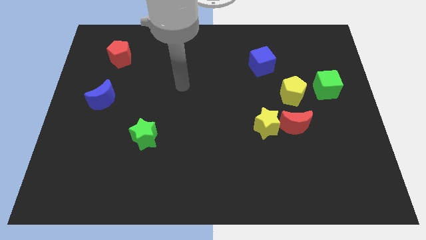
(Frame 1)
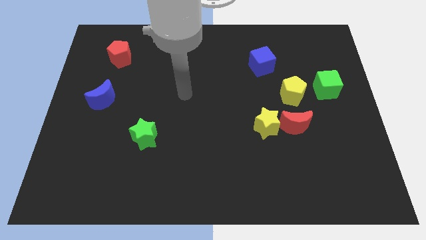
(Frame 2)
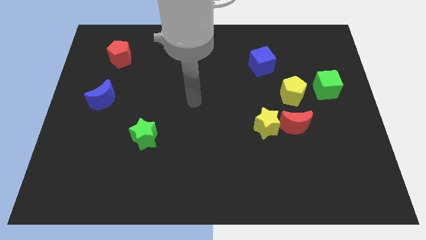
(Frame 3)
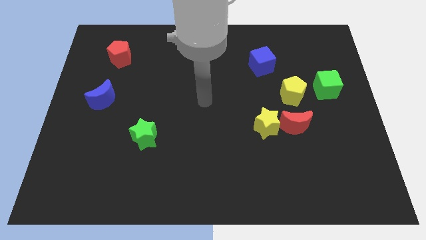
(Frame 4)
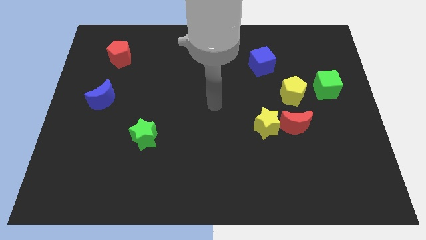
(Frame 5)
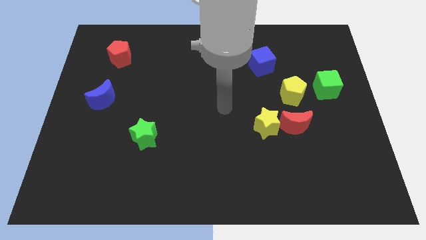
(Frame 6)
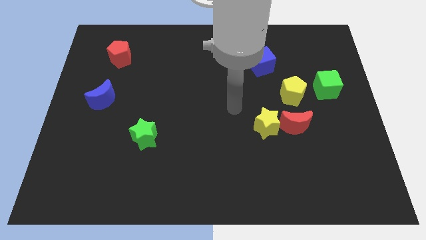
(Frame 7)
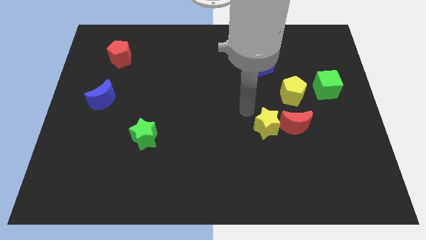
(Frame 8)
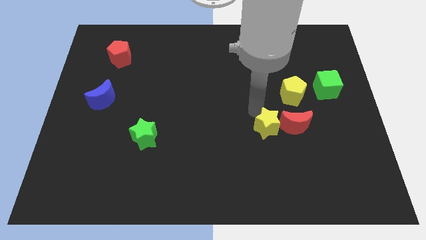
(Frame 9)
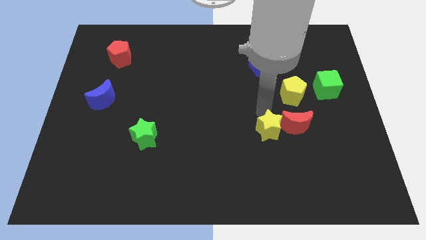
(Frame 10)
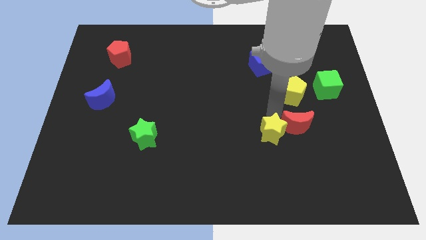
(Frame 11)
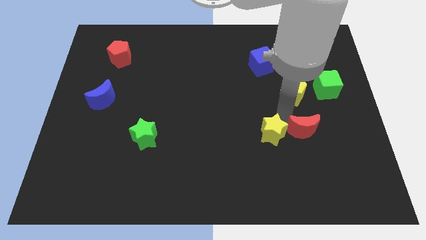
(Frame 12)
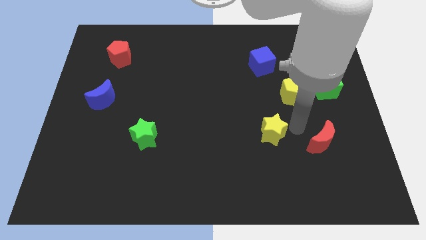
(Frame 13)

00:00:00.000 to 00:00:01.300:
move the yellow star away from the red moon

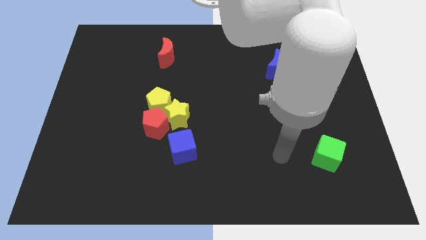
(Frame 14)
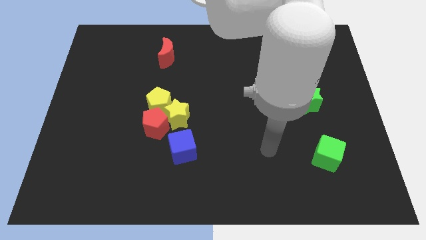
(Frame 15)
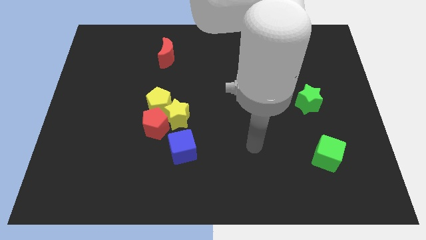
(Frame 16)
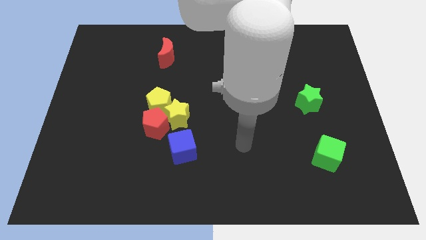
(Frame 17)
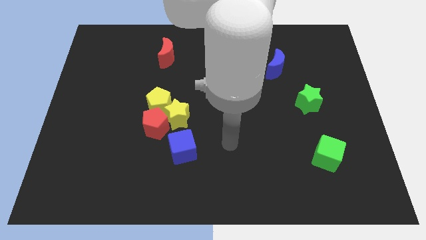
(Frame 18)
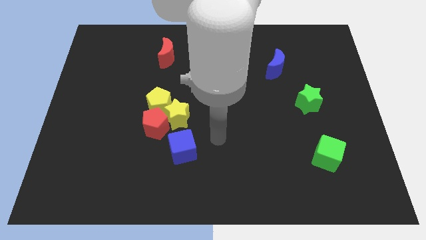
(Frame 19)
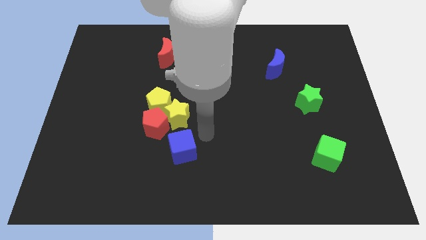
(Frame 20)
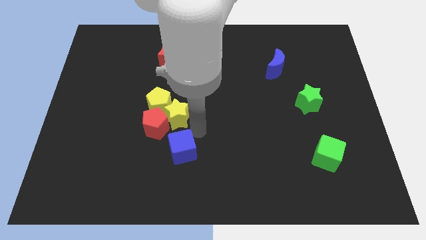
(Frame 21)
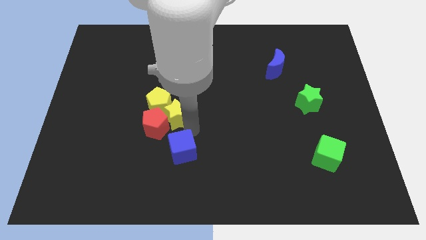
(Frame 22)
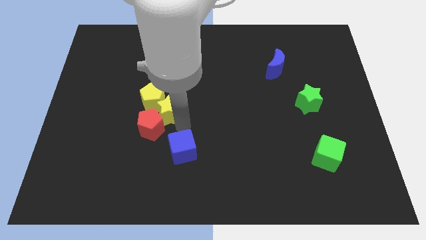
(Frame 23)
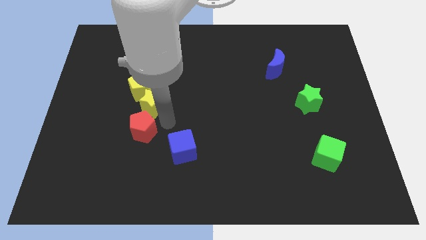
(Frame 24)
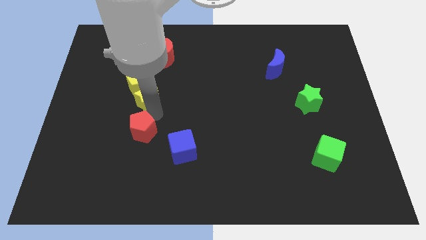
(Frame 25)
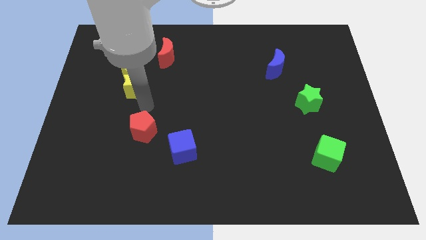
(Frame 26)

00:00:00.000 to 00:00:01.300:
move the yellow pentagon away from the yellow star and red pentagon

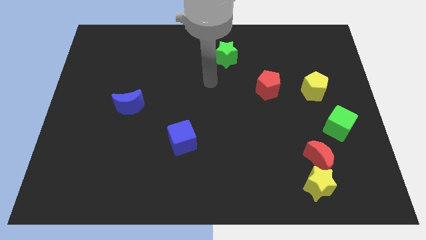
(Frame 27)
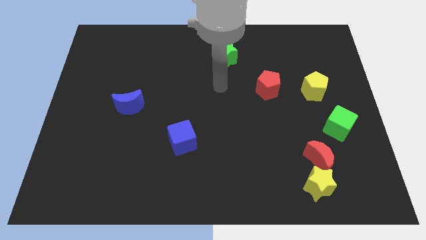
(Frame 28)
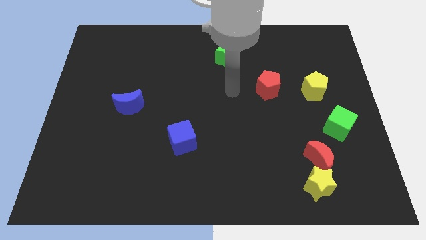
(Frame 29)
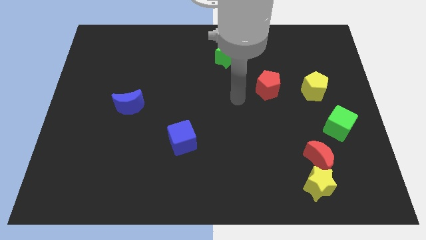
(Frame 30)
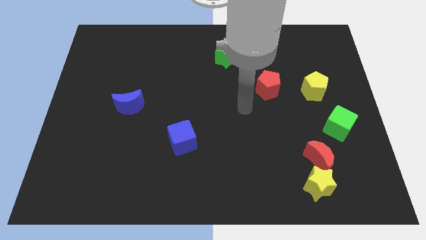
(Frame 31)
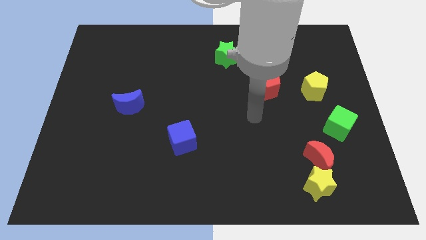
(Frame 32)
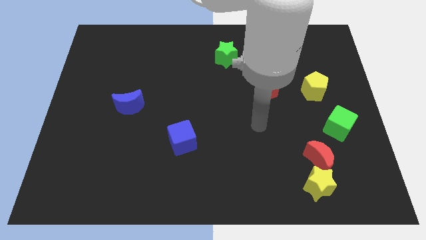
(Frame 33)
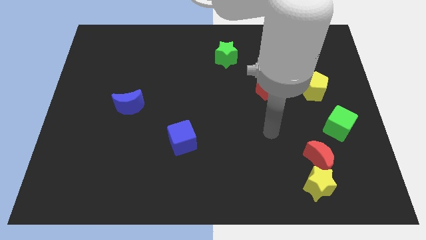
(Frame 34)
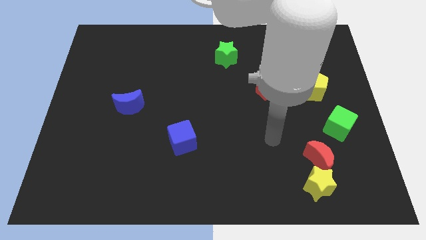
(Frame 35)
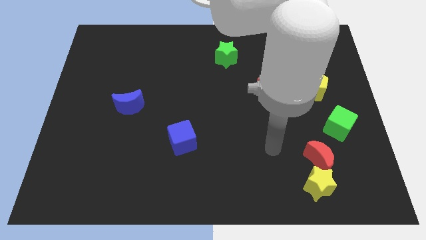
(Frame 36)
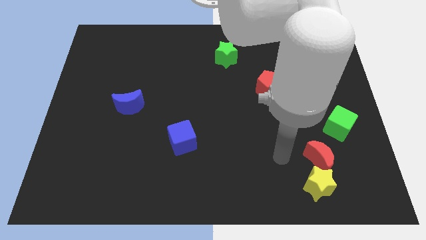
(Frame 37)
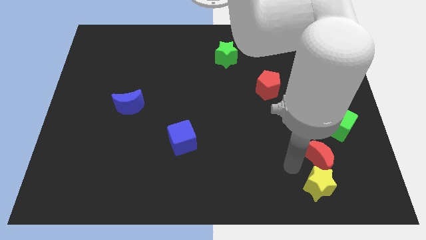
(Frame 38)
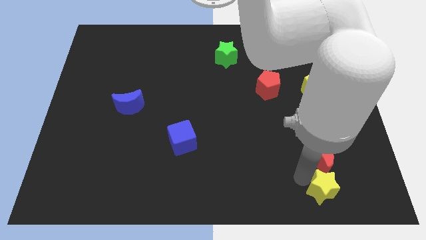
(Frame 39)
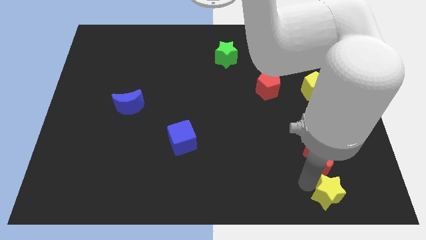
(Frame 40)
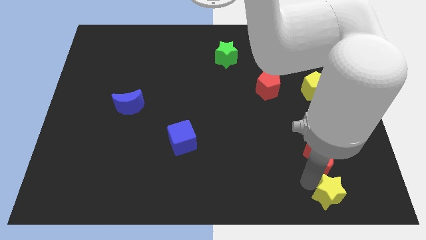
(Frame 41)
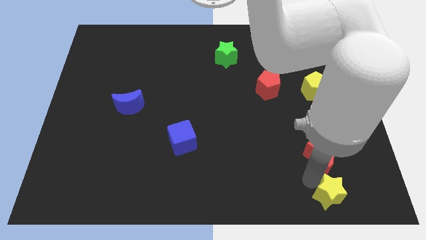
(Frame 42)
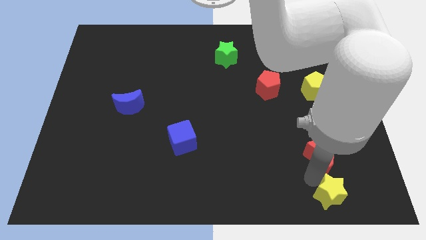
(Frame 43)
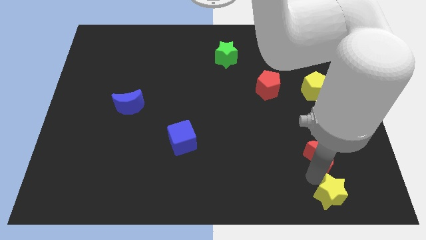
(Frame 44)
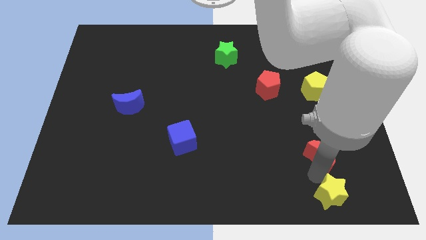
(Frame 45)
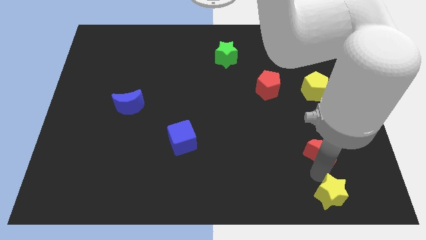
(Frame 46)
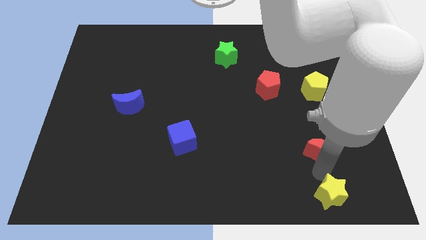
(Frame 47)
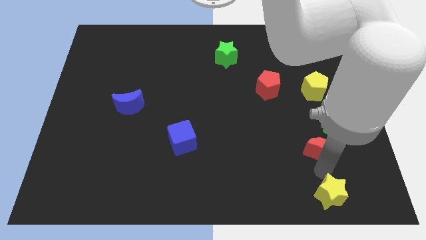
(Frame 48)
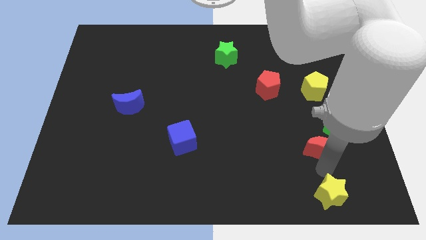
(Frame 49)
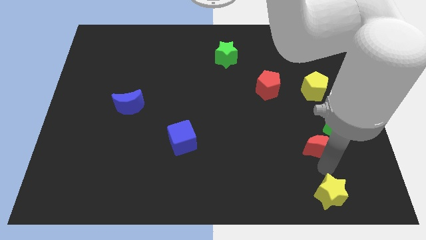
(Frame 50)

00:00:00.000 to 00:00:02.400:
separate the red moon from the yellow star

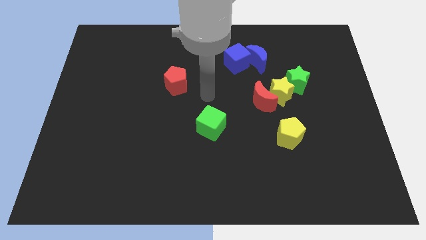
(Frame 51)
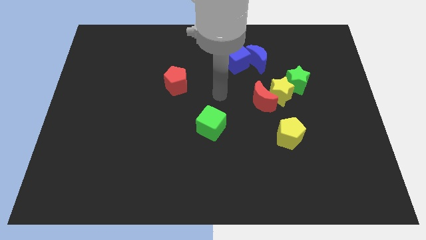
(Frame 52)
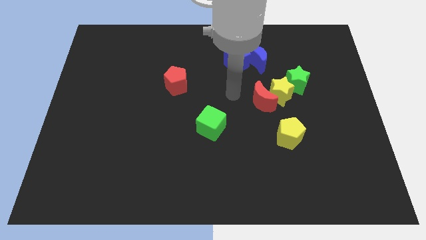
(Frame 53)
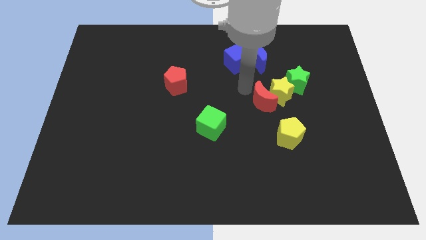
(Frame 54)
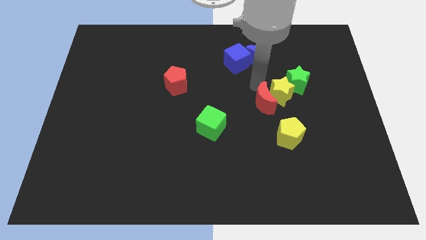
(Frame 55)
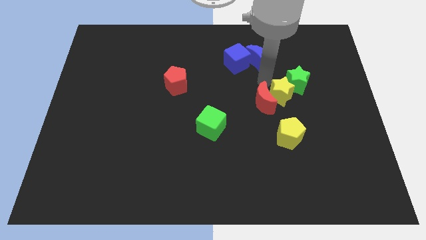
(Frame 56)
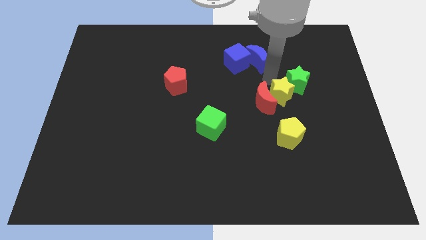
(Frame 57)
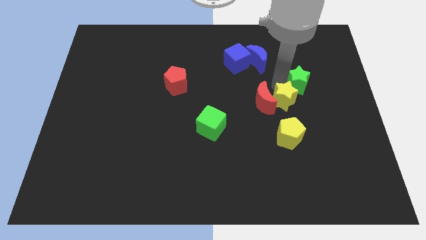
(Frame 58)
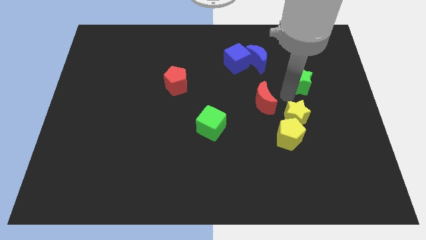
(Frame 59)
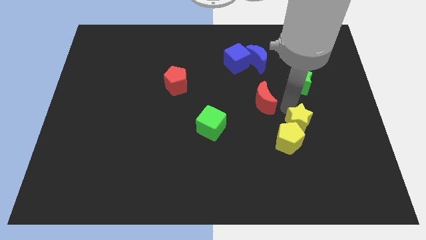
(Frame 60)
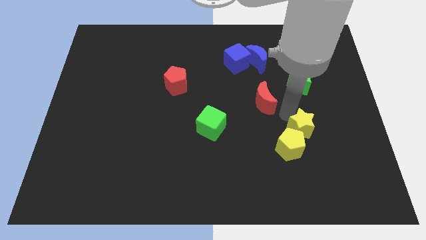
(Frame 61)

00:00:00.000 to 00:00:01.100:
pull the red moon apart from the yellow star

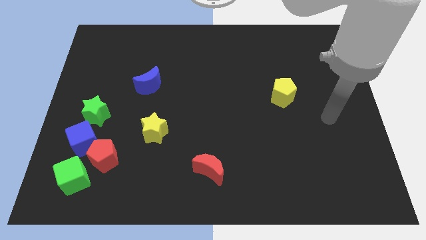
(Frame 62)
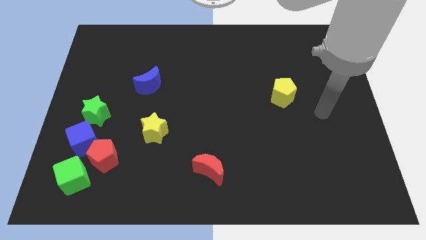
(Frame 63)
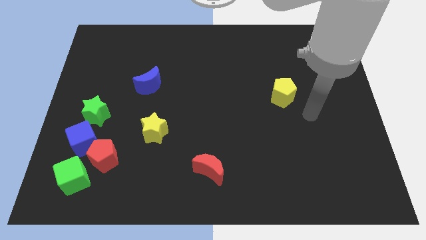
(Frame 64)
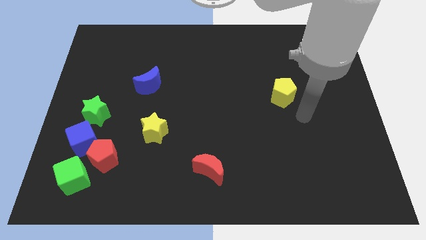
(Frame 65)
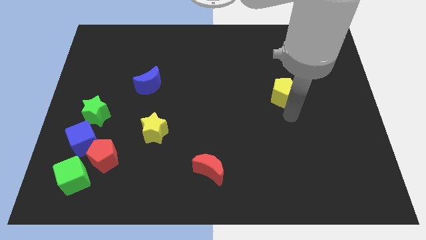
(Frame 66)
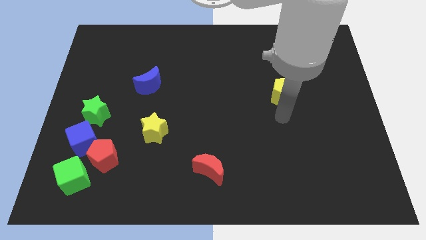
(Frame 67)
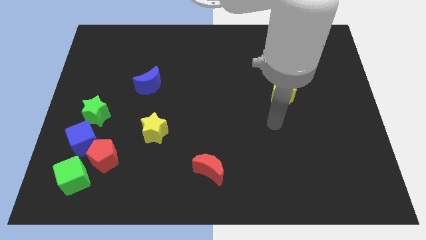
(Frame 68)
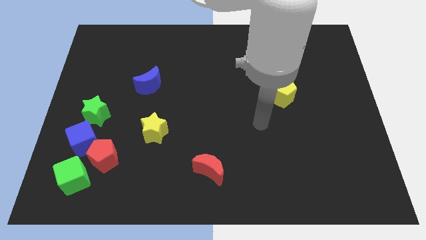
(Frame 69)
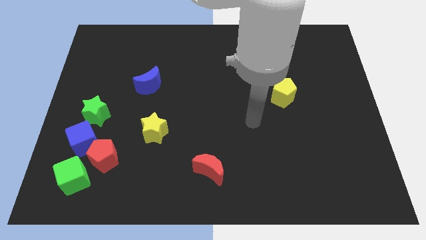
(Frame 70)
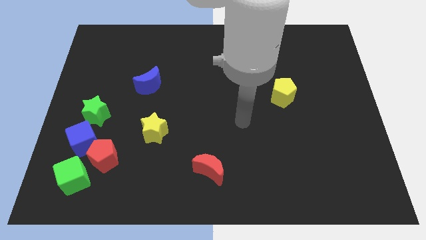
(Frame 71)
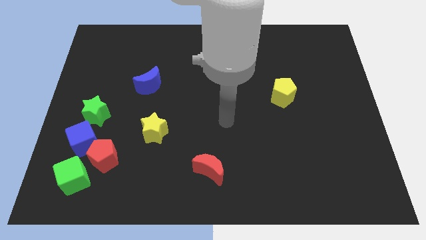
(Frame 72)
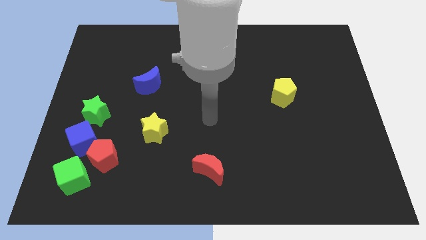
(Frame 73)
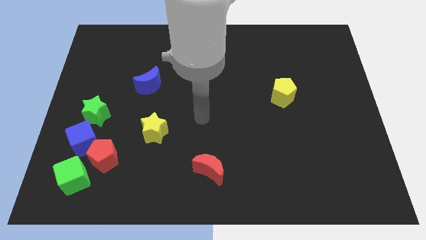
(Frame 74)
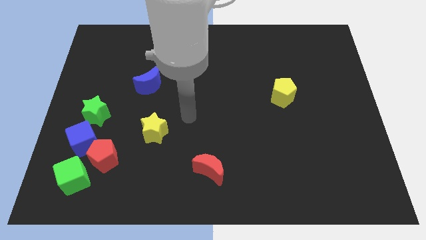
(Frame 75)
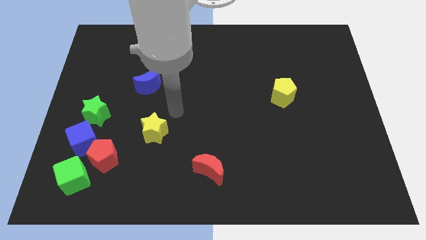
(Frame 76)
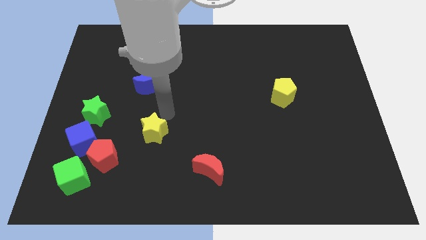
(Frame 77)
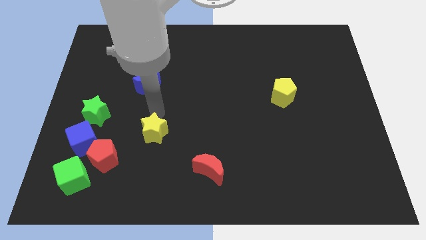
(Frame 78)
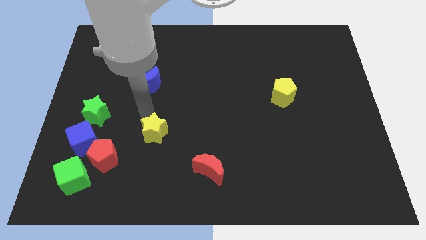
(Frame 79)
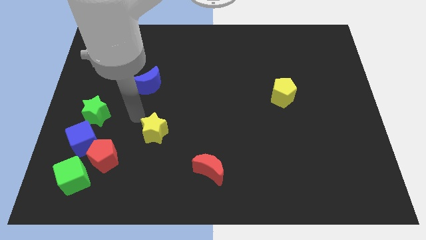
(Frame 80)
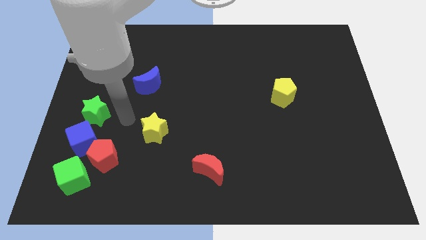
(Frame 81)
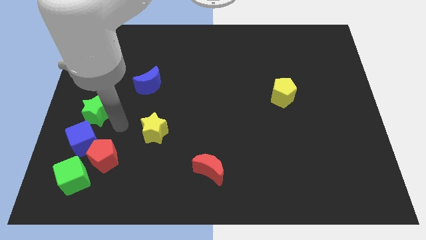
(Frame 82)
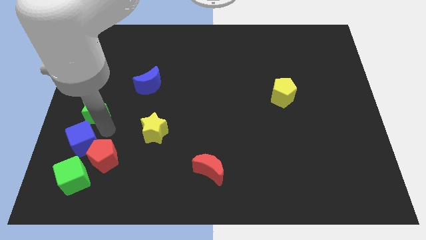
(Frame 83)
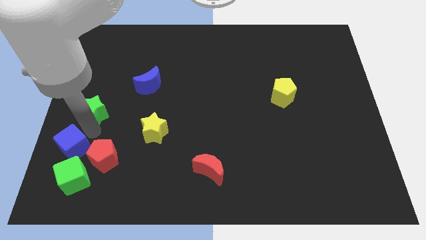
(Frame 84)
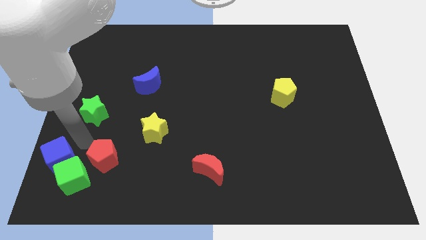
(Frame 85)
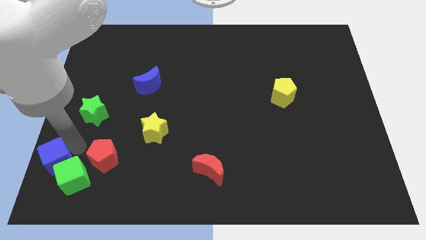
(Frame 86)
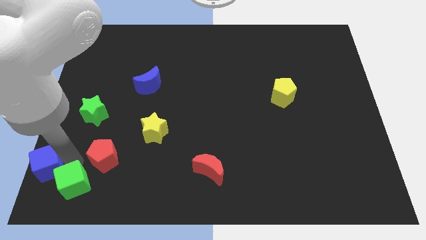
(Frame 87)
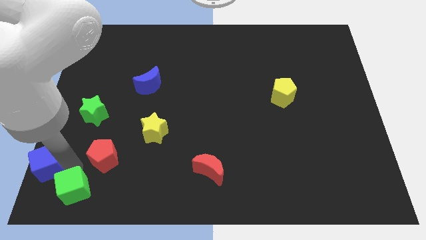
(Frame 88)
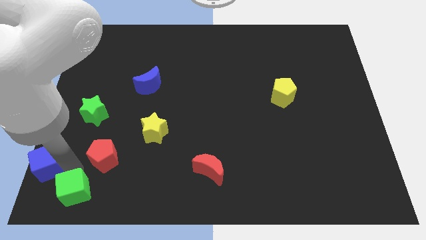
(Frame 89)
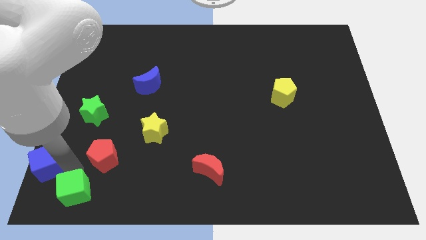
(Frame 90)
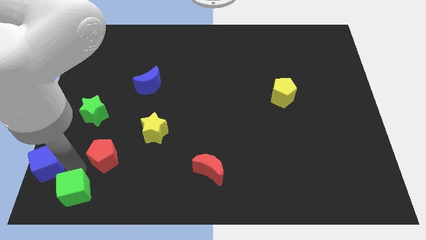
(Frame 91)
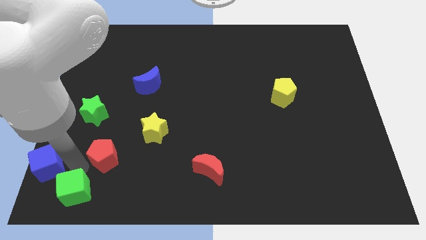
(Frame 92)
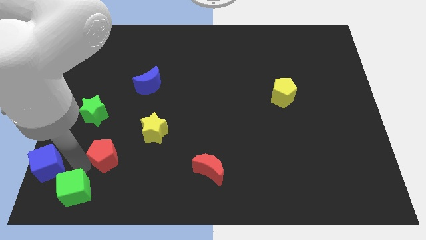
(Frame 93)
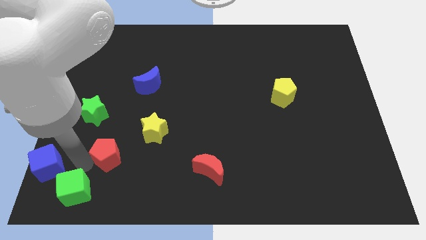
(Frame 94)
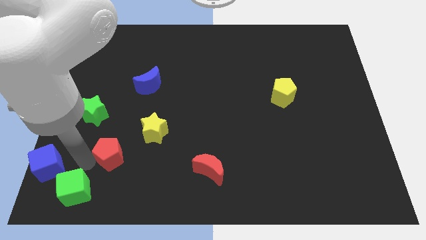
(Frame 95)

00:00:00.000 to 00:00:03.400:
move the red pentagon away from the blue cube and green cube
